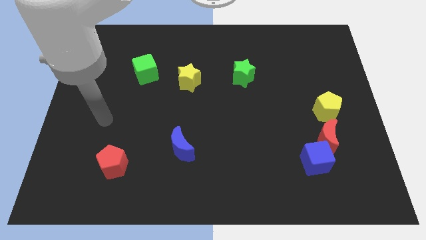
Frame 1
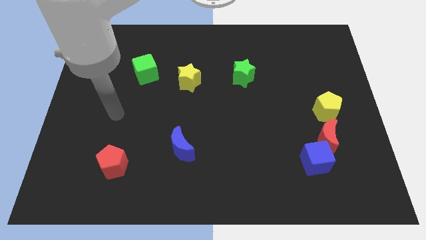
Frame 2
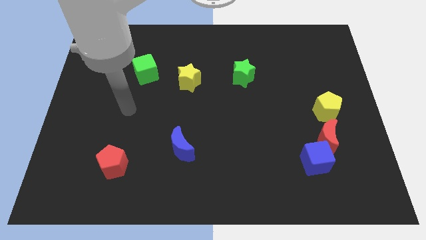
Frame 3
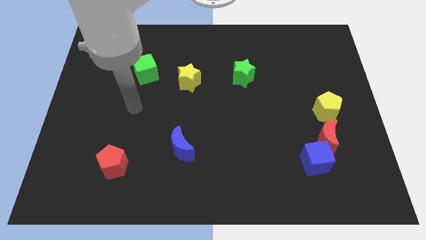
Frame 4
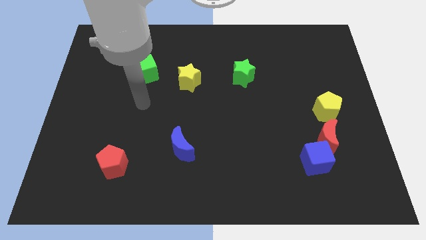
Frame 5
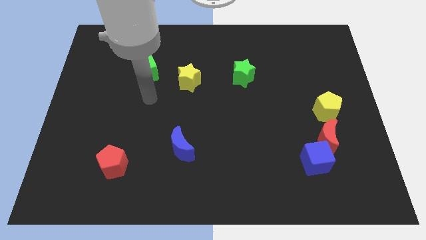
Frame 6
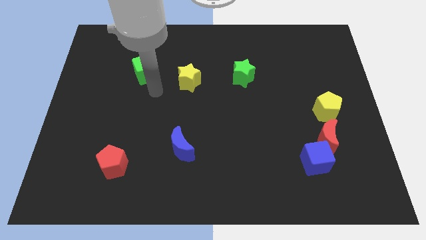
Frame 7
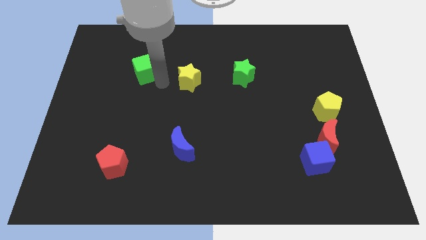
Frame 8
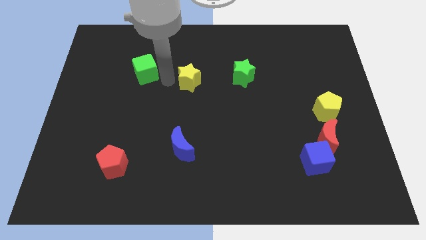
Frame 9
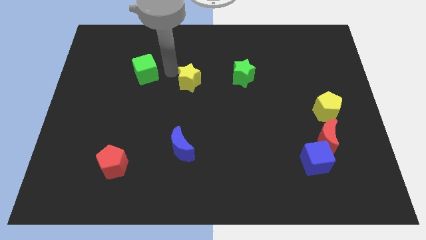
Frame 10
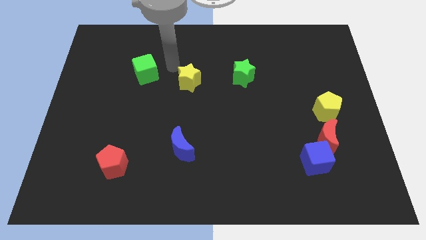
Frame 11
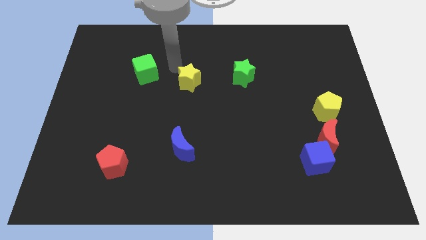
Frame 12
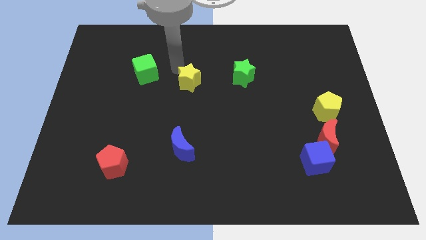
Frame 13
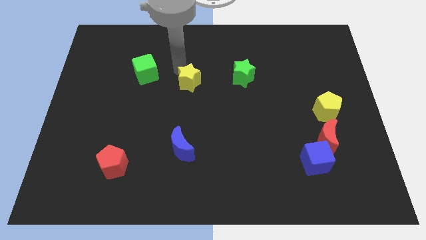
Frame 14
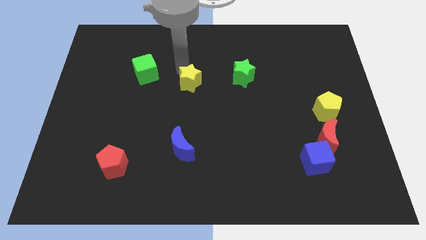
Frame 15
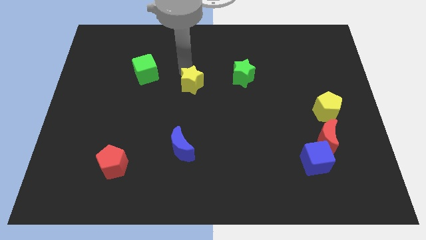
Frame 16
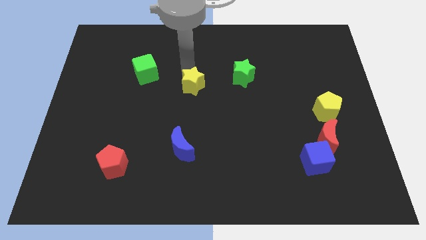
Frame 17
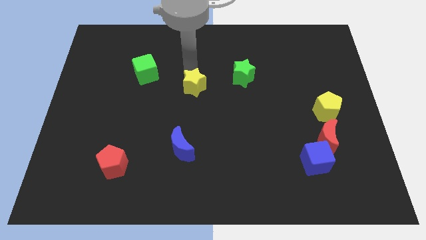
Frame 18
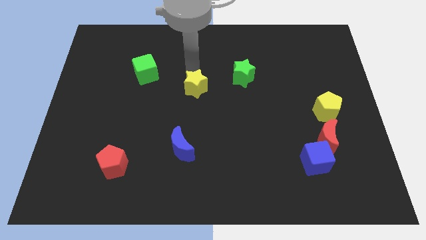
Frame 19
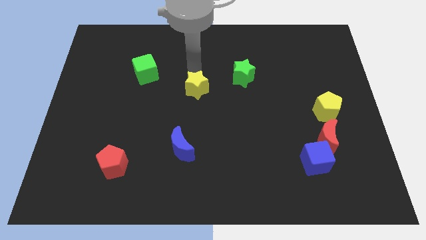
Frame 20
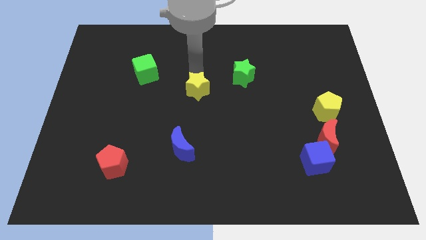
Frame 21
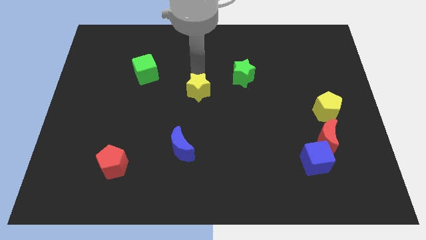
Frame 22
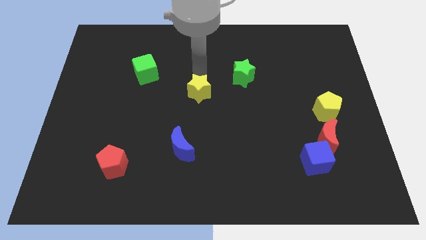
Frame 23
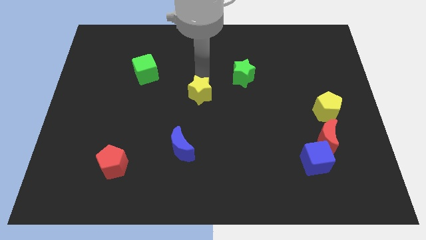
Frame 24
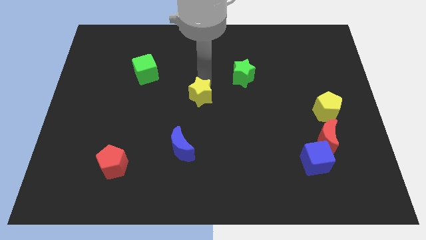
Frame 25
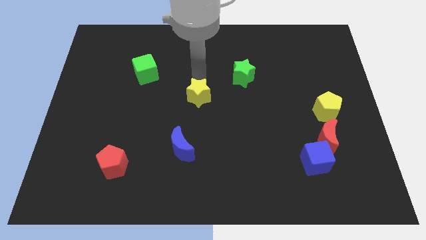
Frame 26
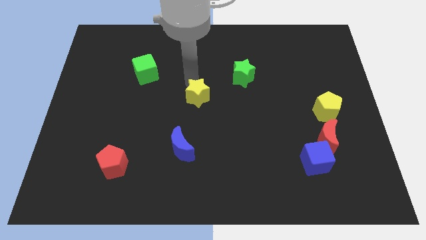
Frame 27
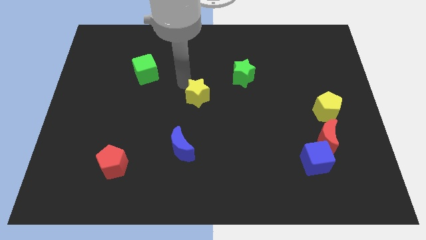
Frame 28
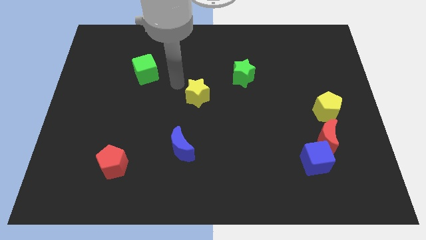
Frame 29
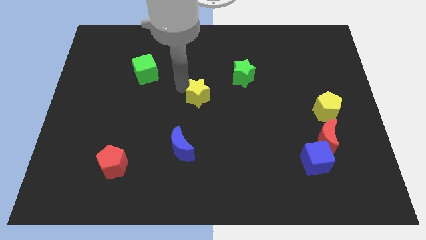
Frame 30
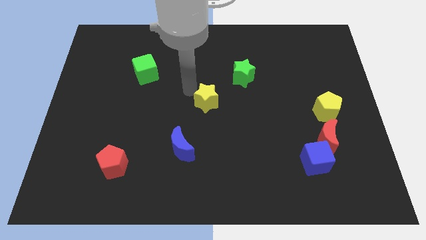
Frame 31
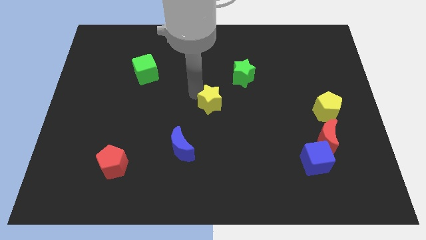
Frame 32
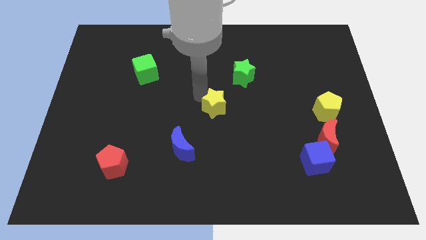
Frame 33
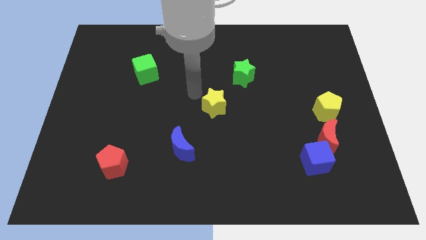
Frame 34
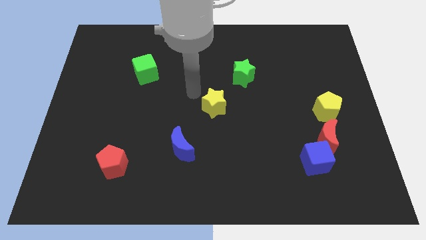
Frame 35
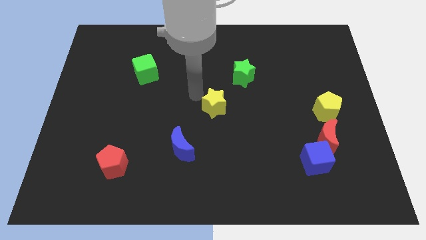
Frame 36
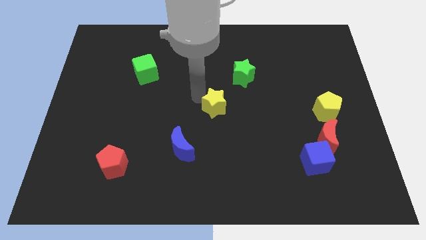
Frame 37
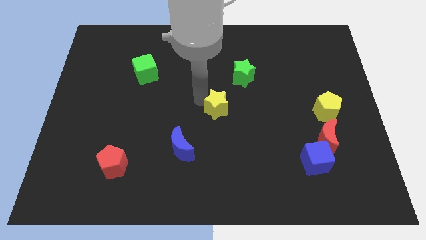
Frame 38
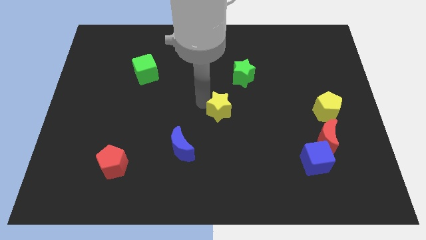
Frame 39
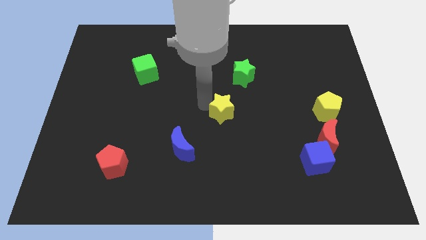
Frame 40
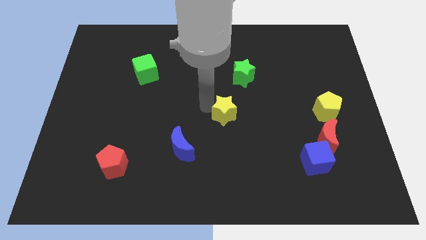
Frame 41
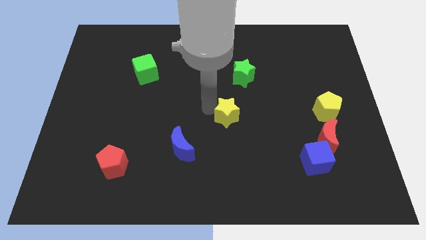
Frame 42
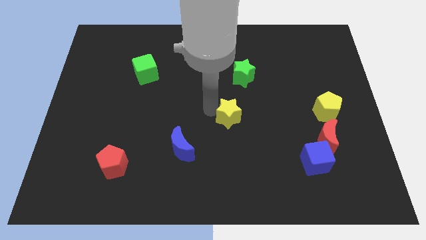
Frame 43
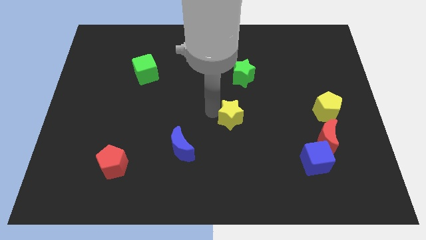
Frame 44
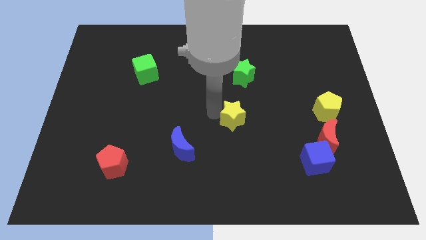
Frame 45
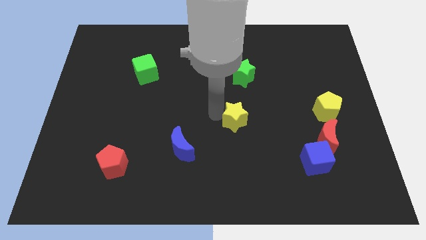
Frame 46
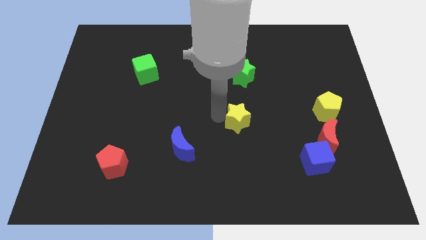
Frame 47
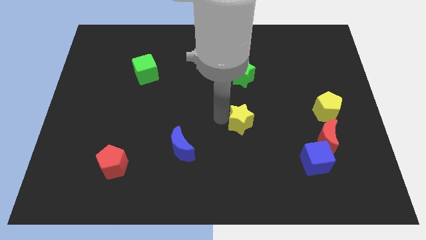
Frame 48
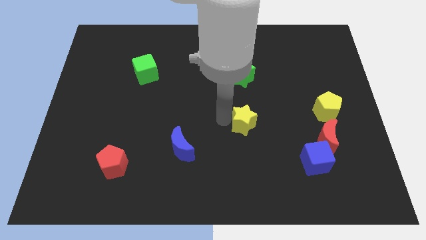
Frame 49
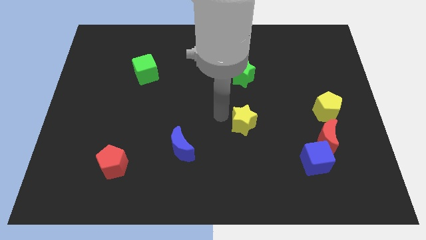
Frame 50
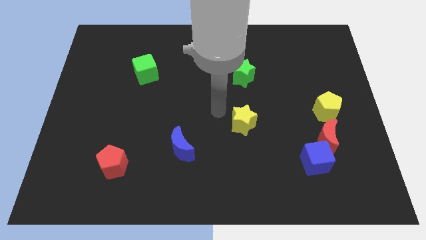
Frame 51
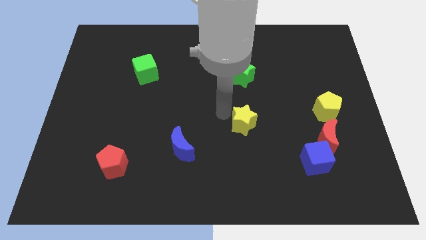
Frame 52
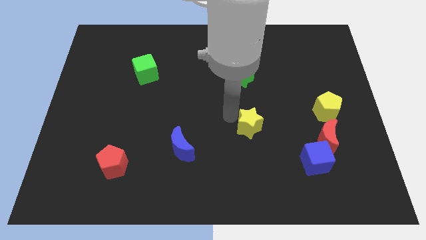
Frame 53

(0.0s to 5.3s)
push the yellow star diagonally down and right

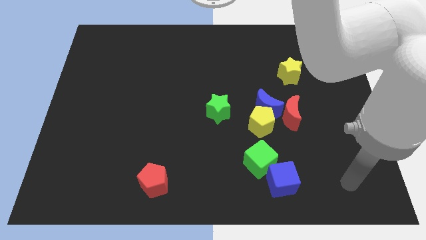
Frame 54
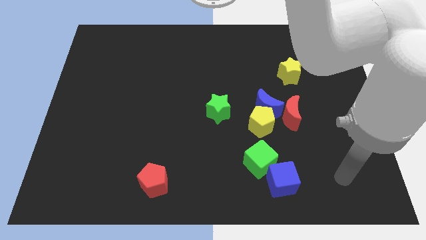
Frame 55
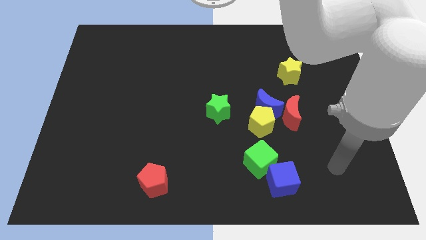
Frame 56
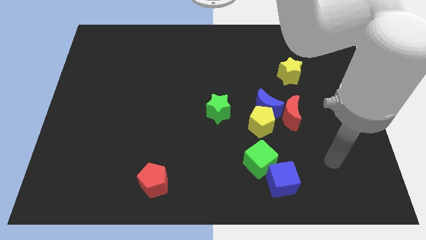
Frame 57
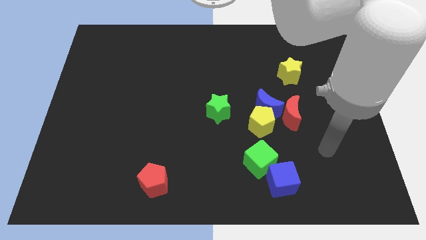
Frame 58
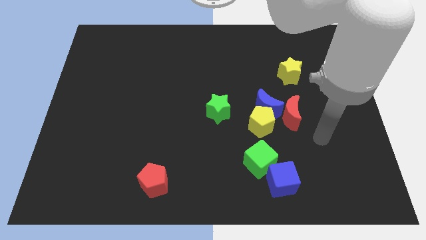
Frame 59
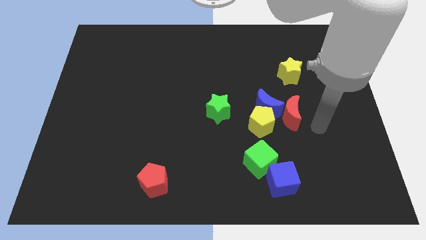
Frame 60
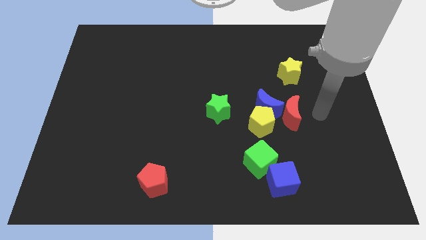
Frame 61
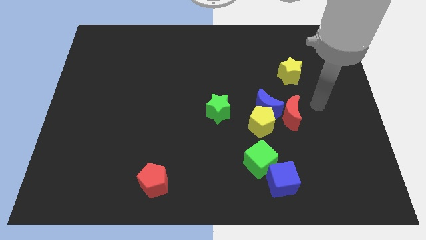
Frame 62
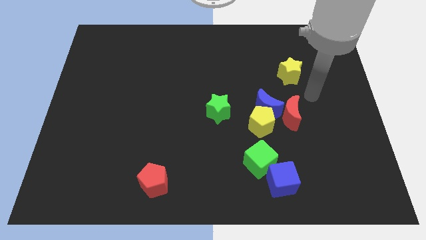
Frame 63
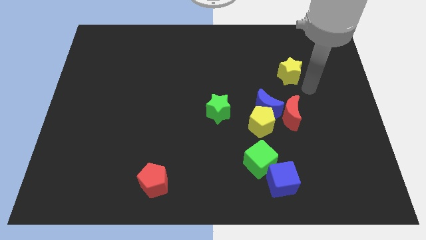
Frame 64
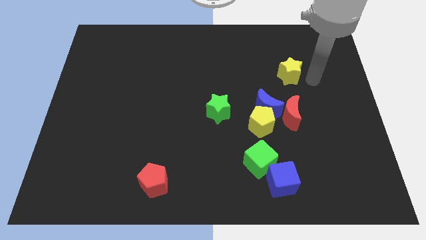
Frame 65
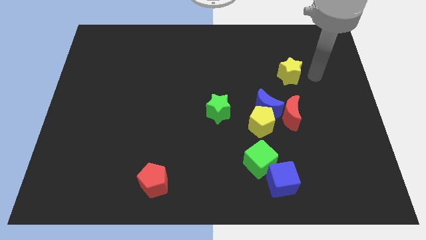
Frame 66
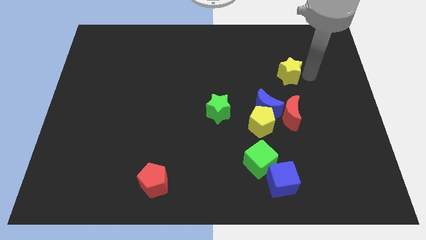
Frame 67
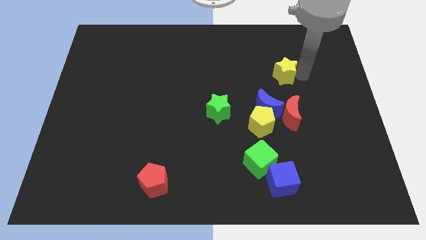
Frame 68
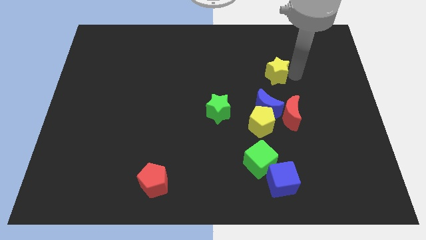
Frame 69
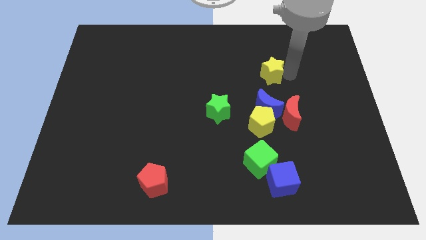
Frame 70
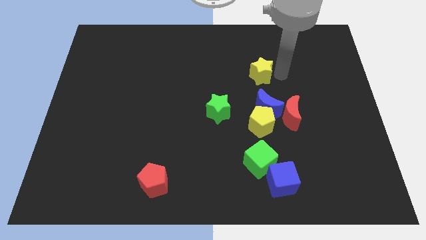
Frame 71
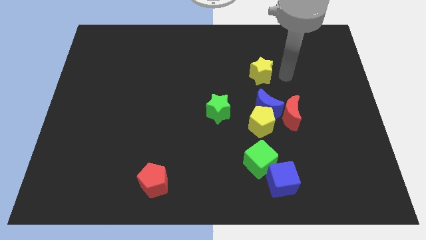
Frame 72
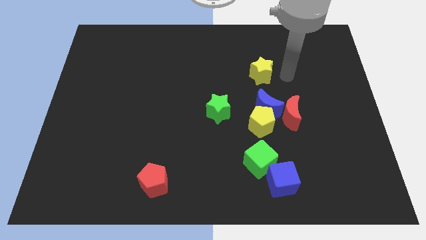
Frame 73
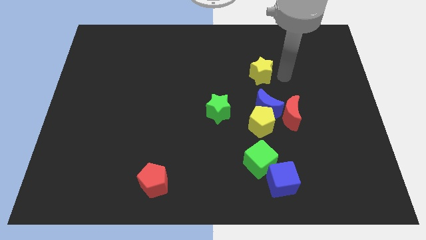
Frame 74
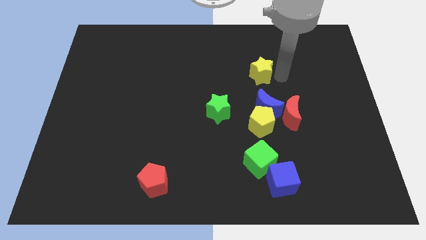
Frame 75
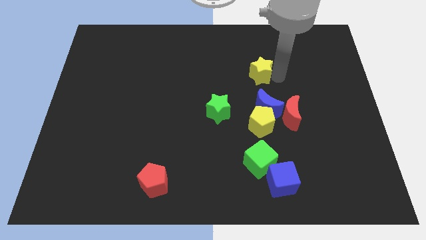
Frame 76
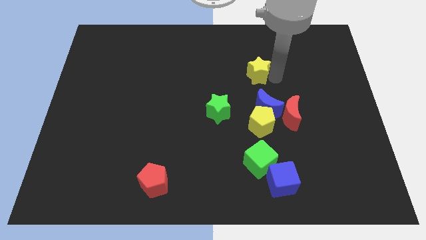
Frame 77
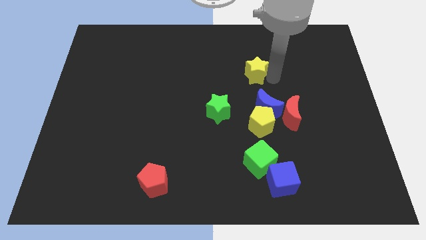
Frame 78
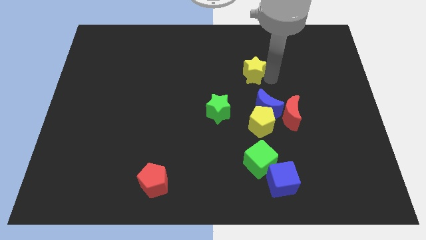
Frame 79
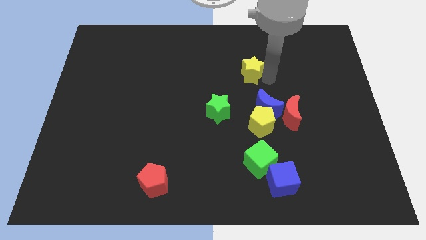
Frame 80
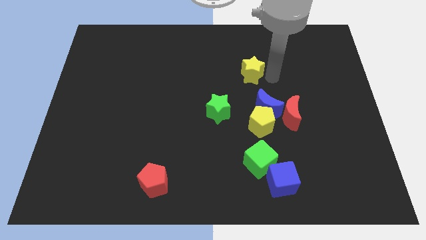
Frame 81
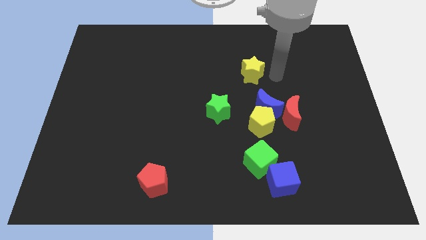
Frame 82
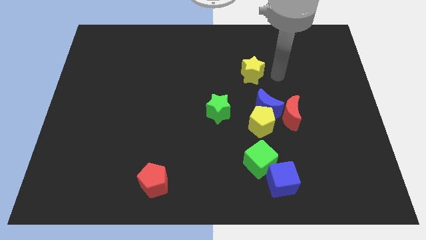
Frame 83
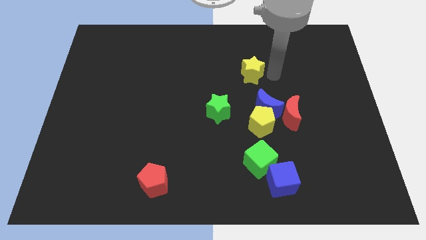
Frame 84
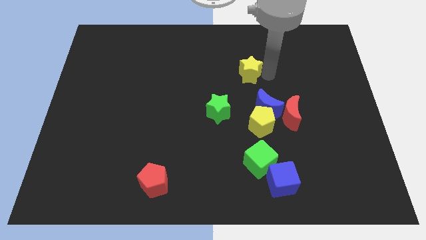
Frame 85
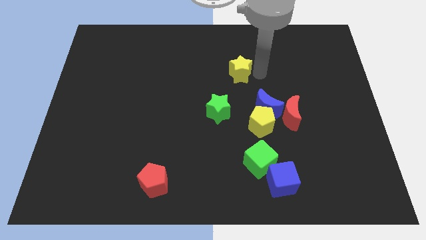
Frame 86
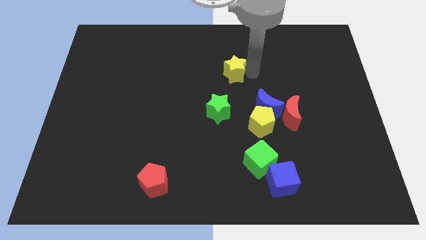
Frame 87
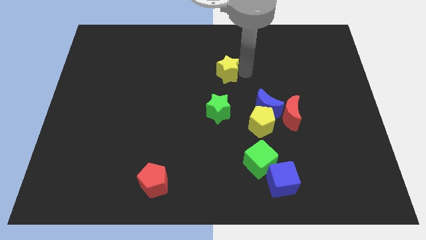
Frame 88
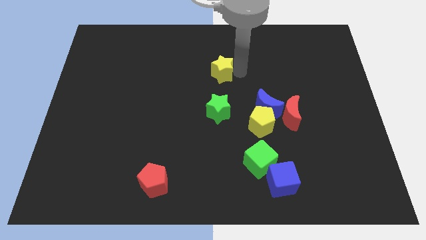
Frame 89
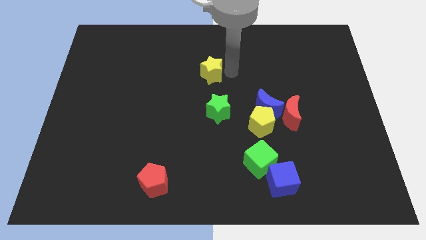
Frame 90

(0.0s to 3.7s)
slide the yellow star to the left
